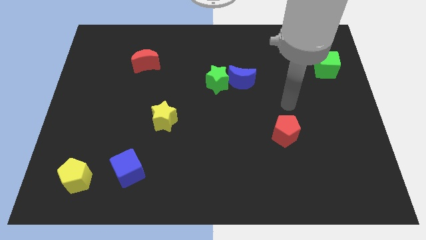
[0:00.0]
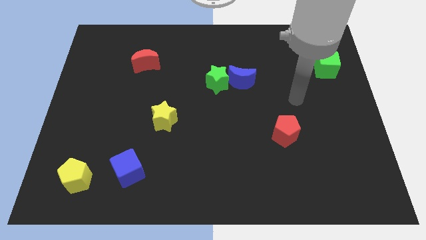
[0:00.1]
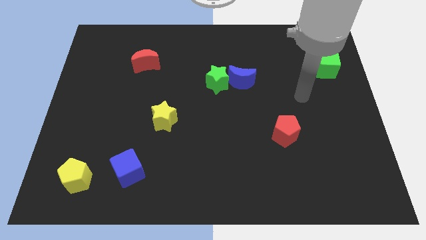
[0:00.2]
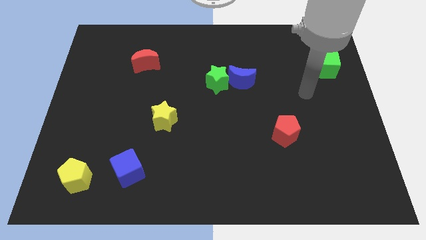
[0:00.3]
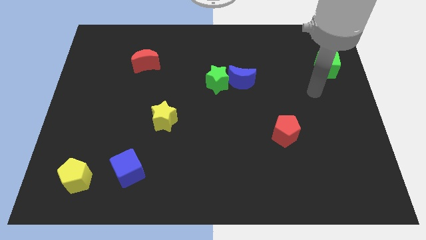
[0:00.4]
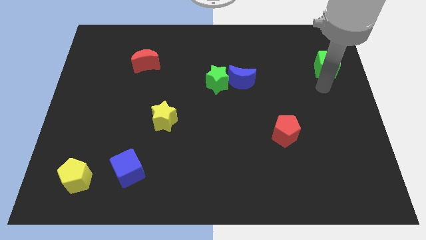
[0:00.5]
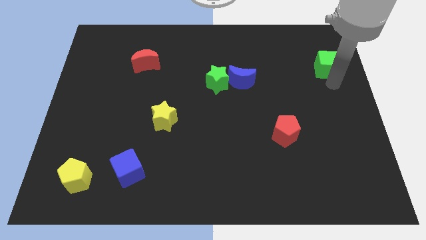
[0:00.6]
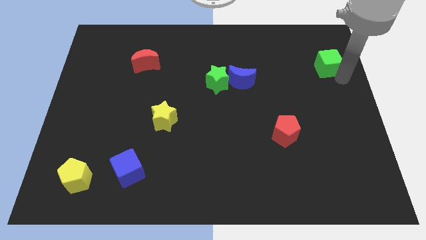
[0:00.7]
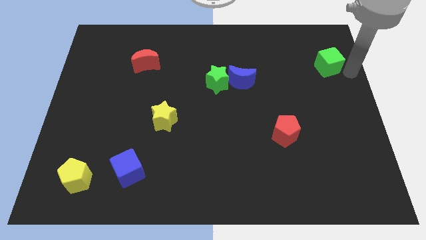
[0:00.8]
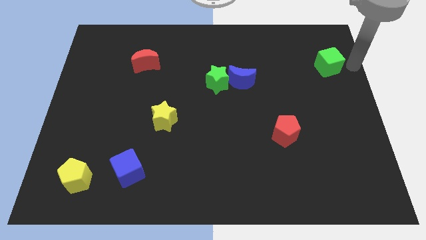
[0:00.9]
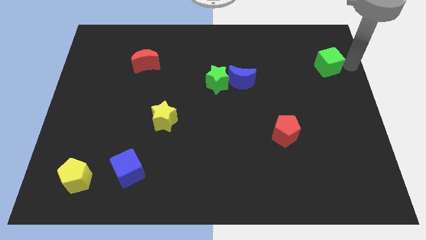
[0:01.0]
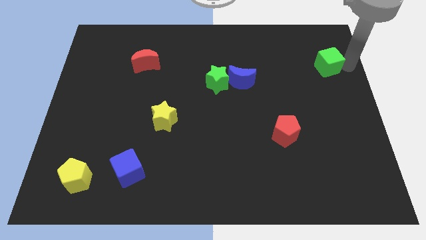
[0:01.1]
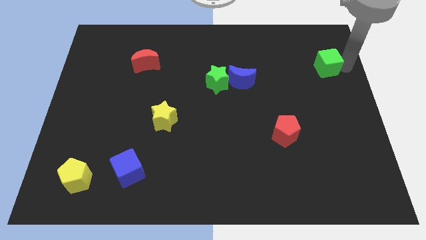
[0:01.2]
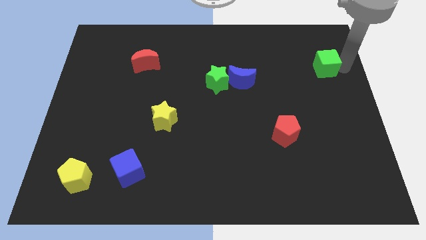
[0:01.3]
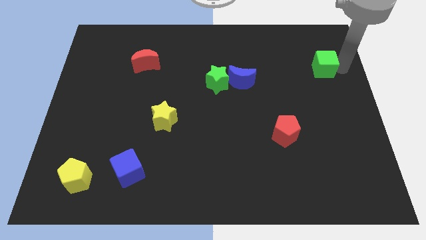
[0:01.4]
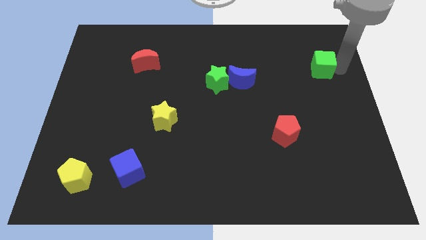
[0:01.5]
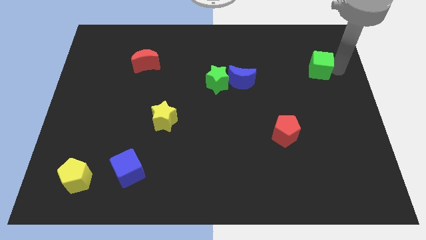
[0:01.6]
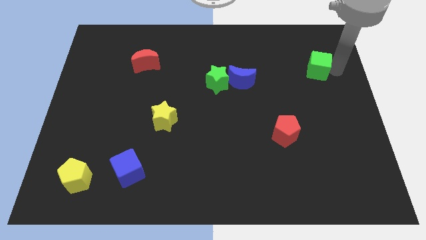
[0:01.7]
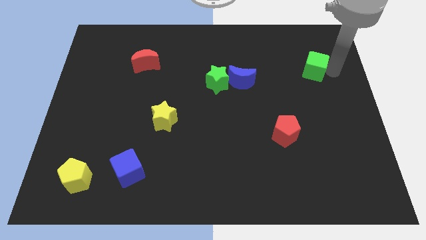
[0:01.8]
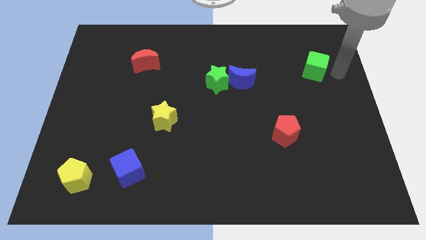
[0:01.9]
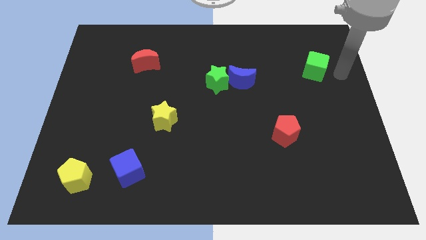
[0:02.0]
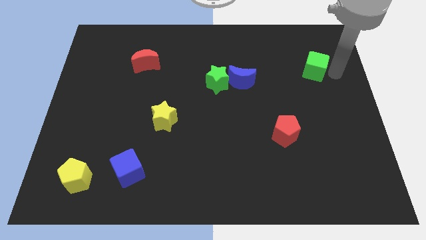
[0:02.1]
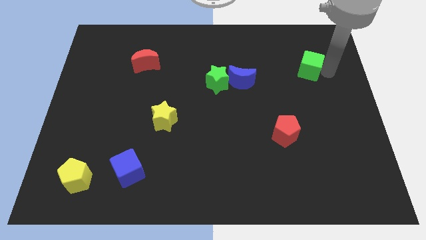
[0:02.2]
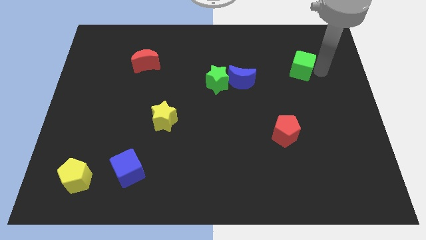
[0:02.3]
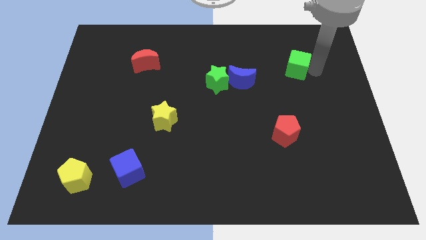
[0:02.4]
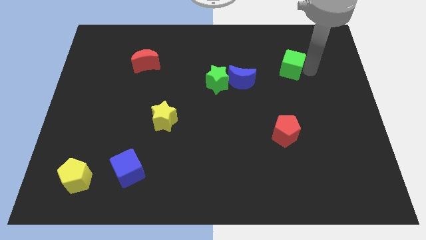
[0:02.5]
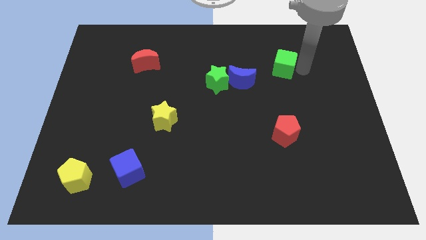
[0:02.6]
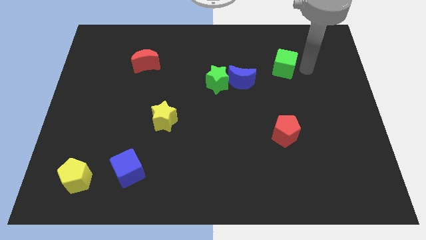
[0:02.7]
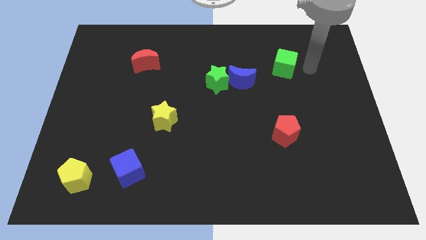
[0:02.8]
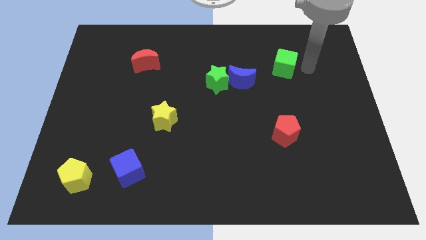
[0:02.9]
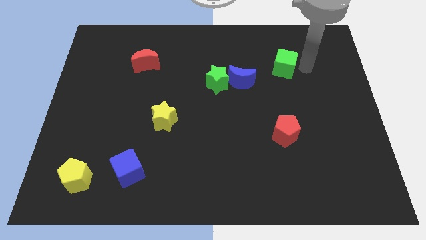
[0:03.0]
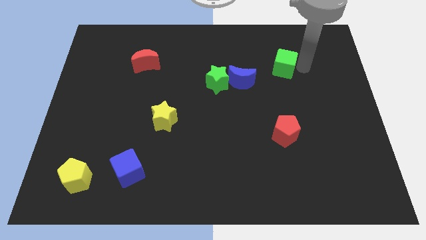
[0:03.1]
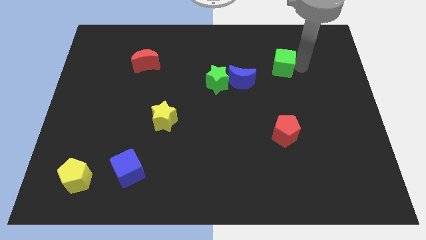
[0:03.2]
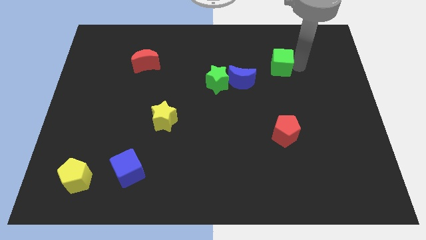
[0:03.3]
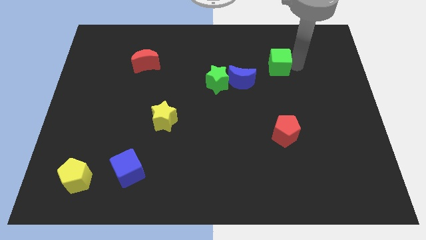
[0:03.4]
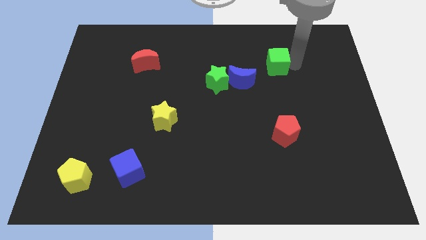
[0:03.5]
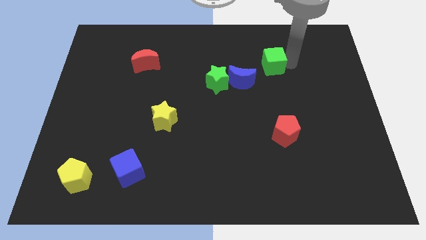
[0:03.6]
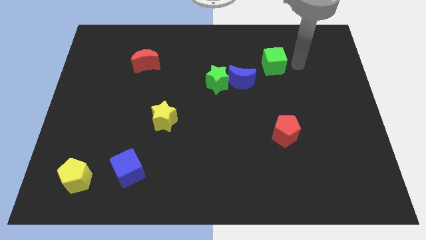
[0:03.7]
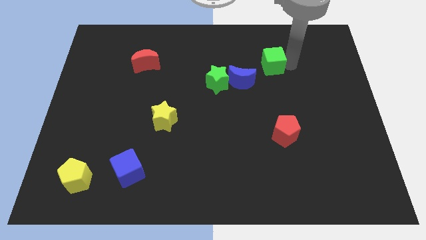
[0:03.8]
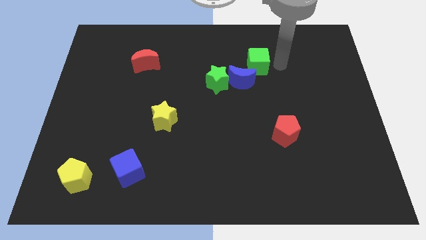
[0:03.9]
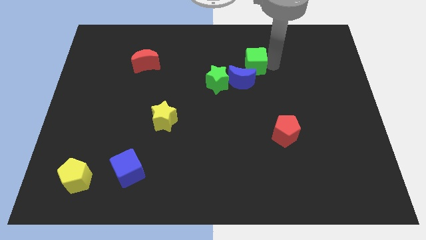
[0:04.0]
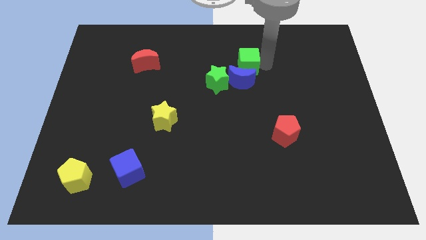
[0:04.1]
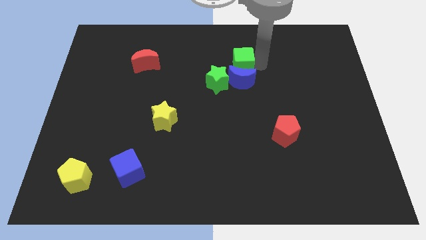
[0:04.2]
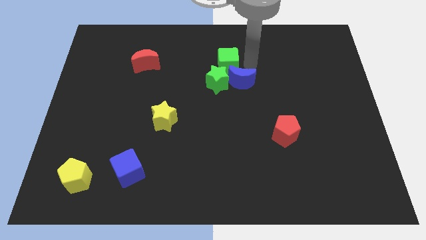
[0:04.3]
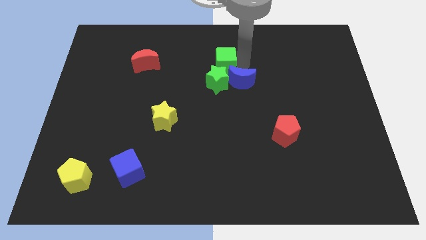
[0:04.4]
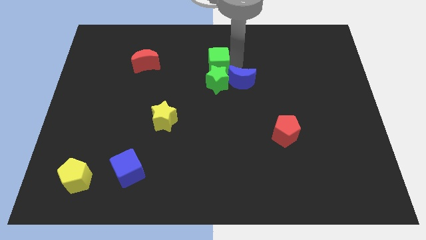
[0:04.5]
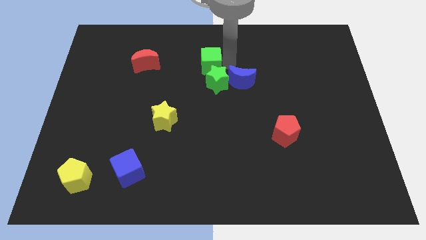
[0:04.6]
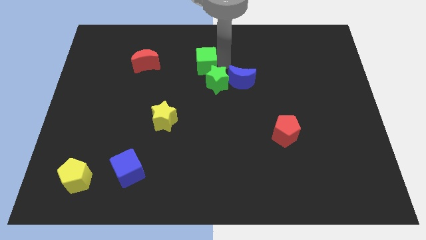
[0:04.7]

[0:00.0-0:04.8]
push the green cube just right of the red moon

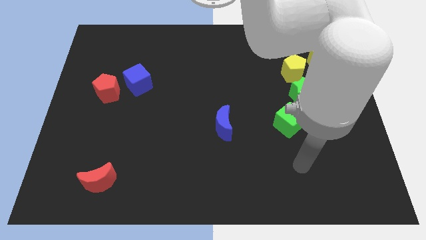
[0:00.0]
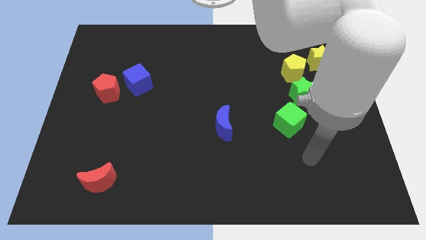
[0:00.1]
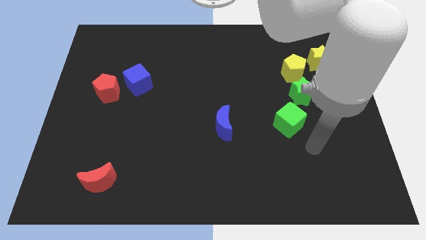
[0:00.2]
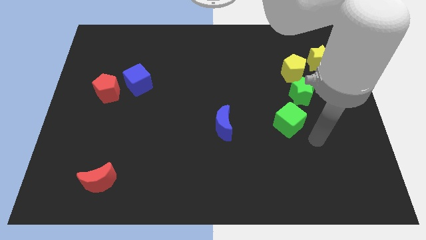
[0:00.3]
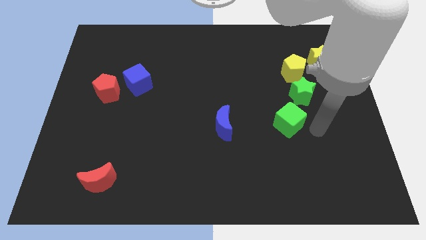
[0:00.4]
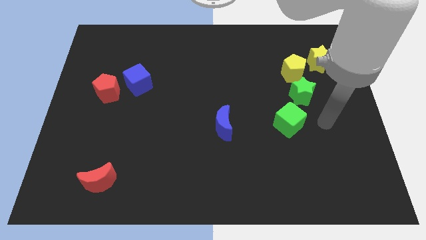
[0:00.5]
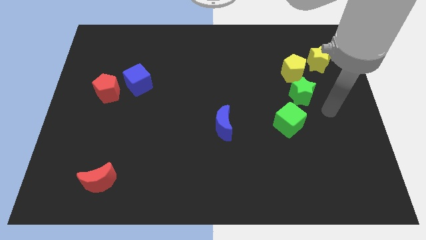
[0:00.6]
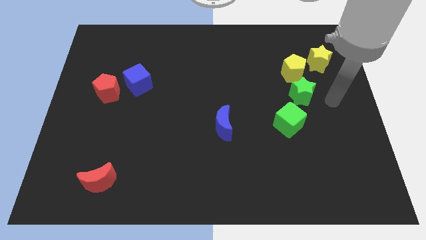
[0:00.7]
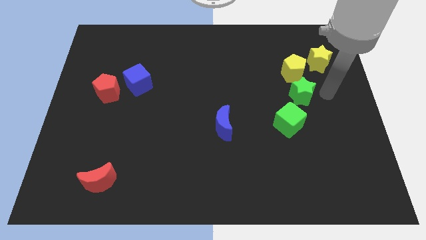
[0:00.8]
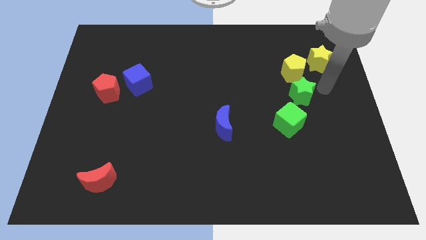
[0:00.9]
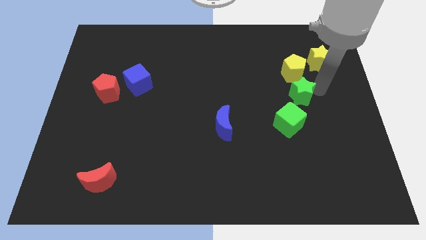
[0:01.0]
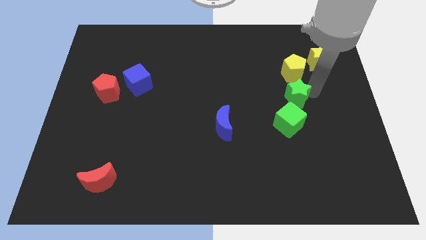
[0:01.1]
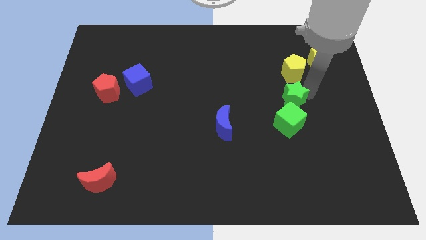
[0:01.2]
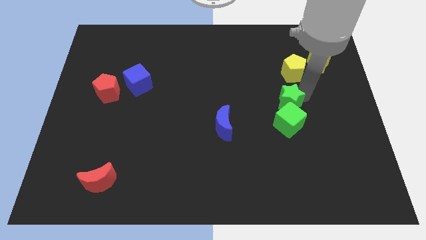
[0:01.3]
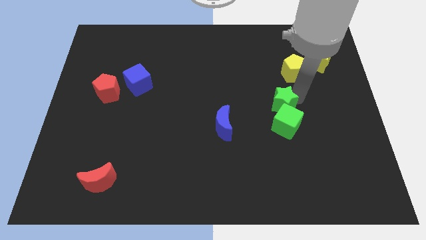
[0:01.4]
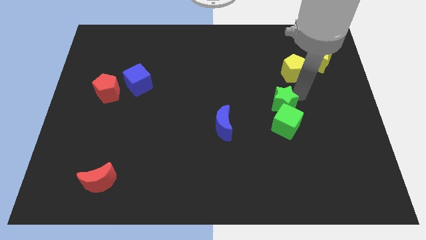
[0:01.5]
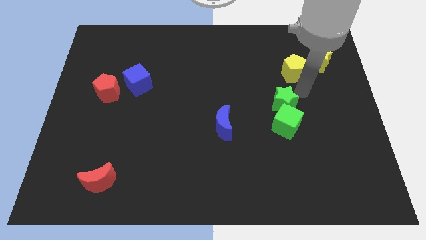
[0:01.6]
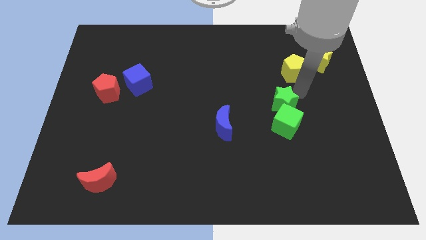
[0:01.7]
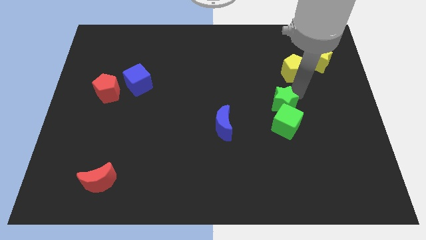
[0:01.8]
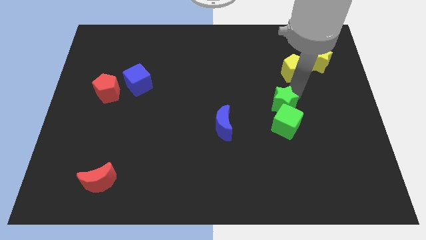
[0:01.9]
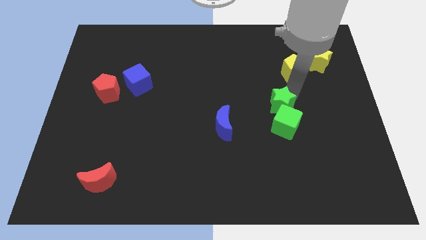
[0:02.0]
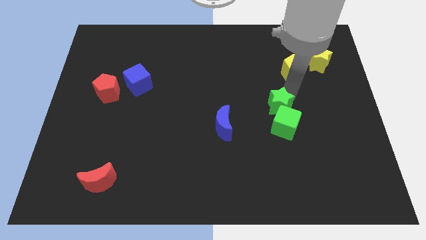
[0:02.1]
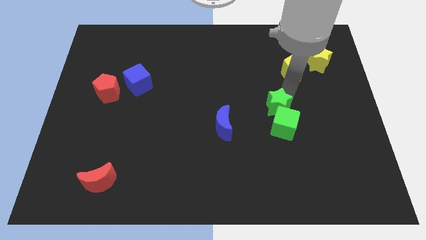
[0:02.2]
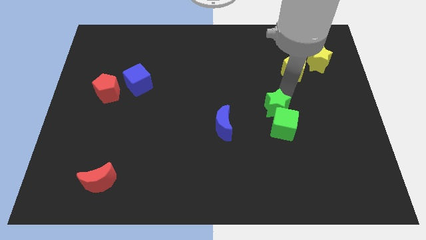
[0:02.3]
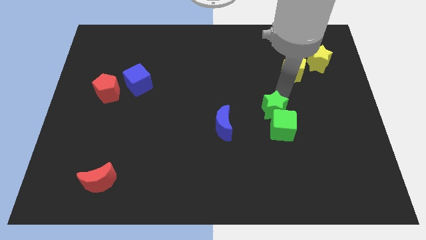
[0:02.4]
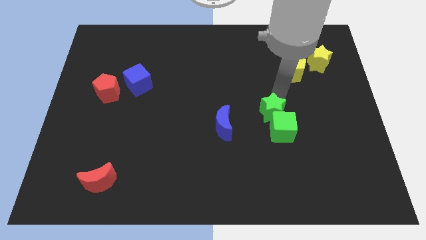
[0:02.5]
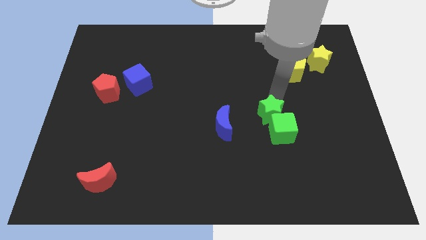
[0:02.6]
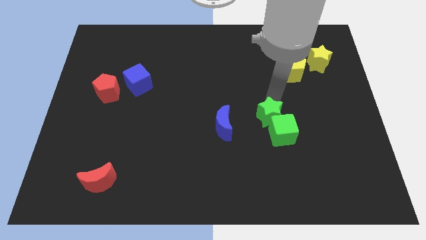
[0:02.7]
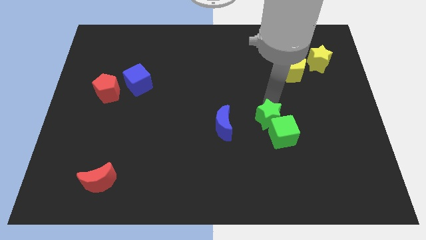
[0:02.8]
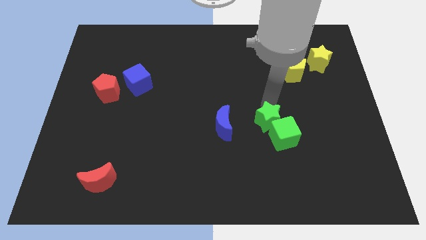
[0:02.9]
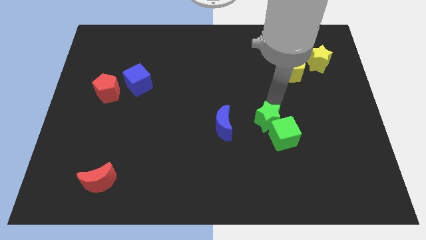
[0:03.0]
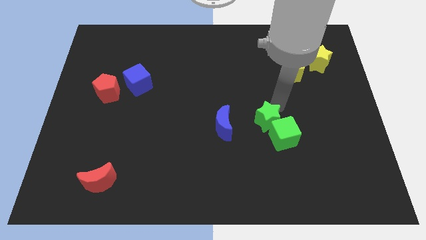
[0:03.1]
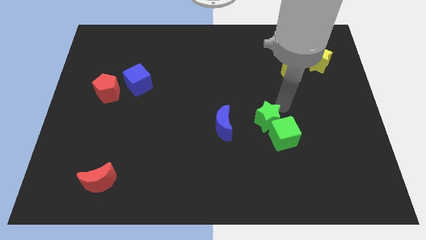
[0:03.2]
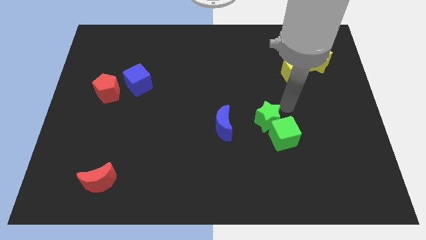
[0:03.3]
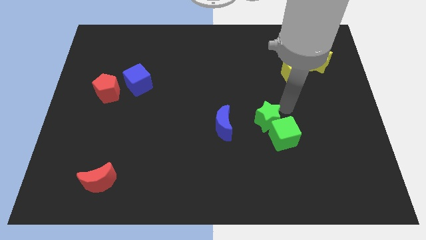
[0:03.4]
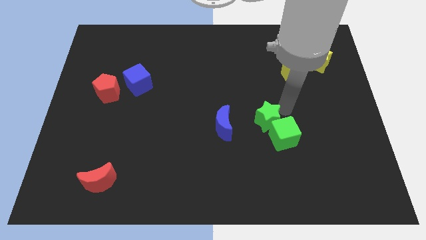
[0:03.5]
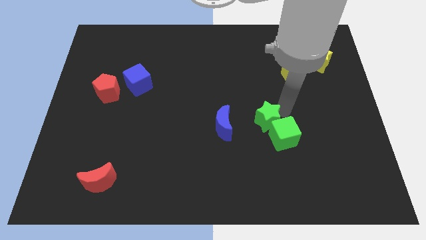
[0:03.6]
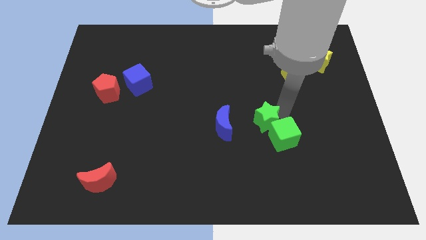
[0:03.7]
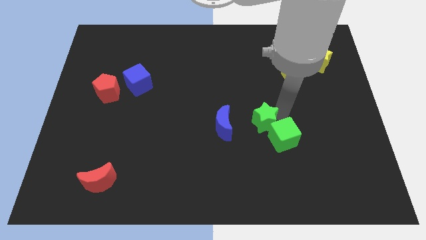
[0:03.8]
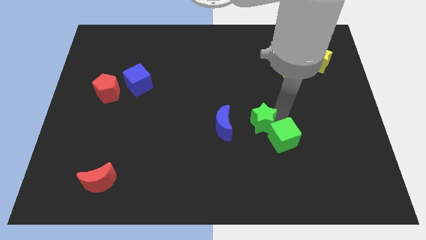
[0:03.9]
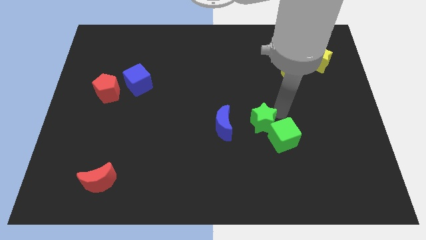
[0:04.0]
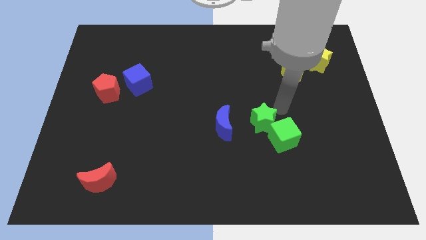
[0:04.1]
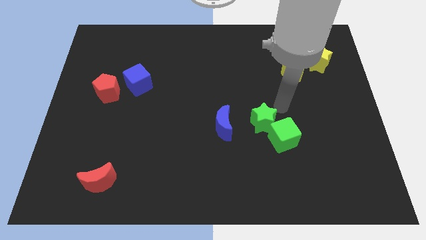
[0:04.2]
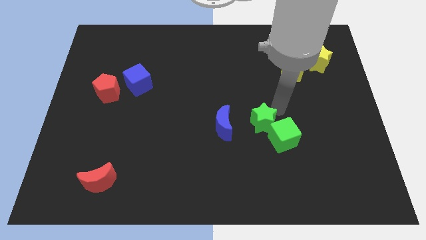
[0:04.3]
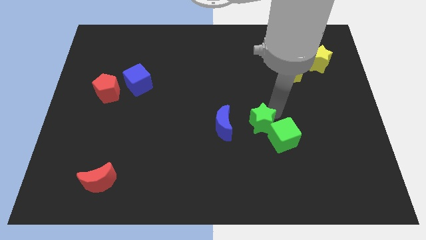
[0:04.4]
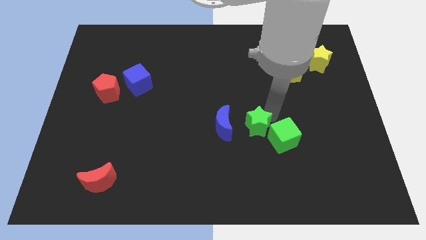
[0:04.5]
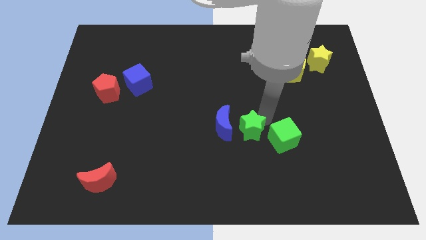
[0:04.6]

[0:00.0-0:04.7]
slide the green star diagonally down and to the right of the blue moon
